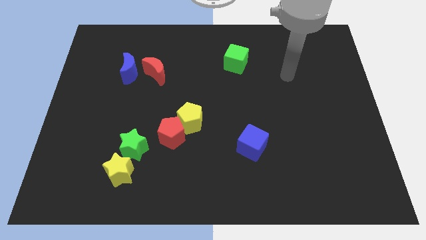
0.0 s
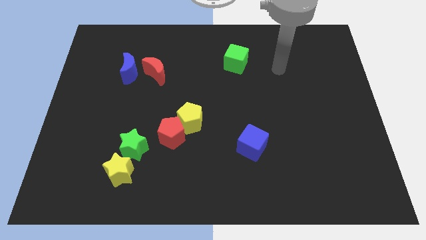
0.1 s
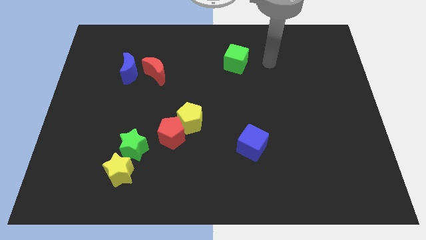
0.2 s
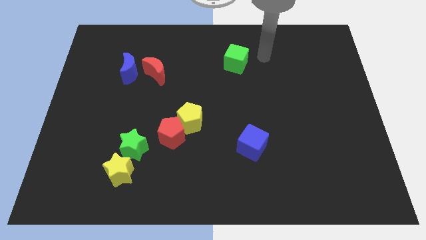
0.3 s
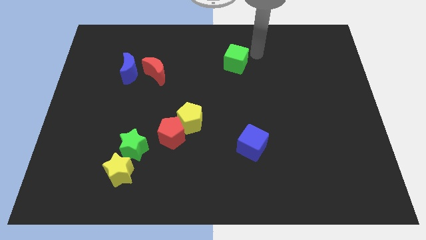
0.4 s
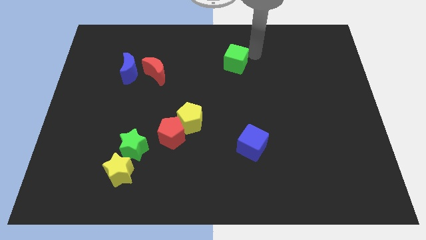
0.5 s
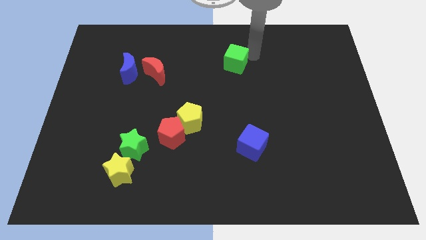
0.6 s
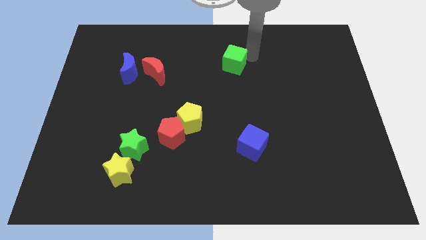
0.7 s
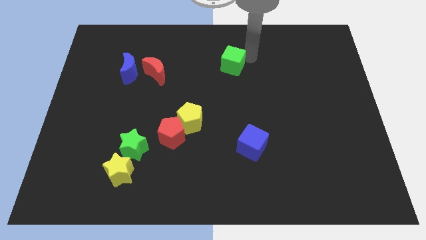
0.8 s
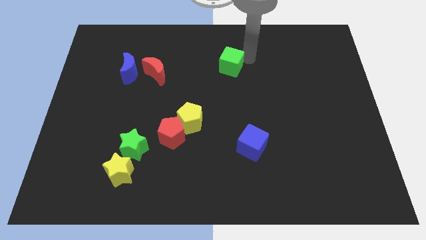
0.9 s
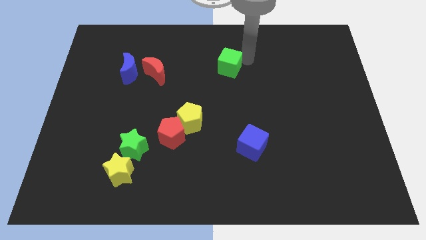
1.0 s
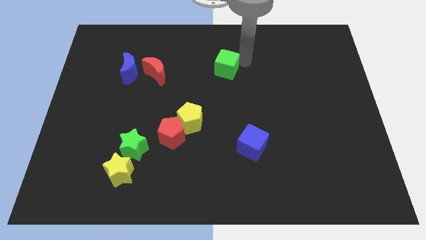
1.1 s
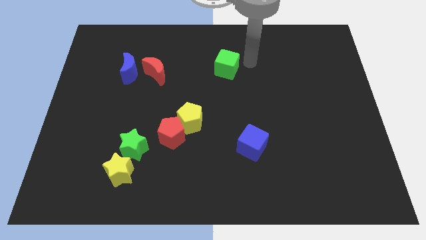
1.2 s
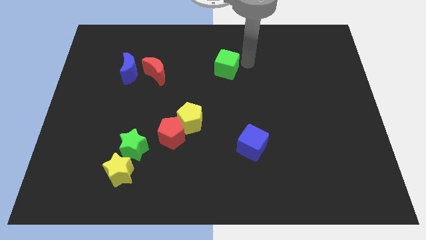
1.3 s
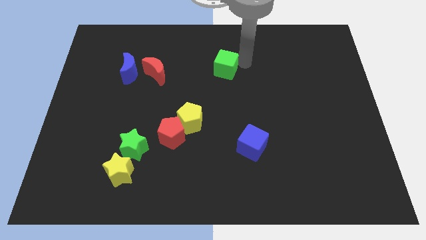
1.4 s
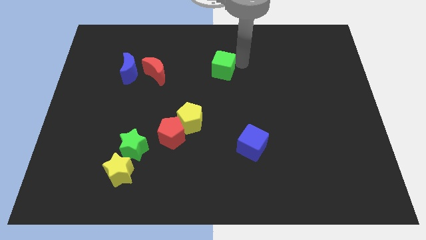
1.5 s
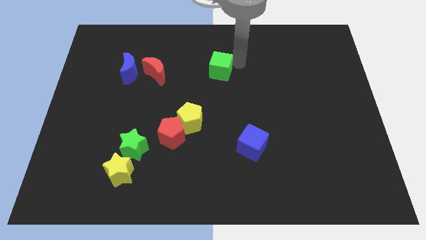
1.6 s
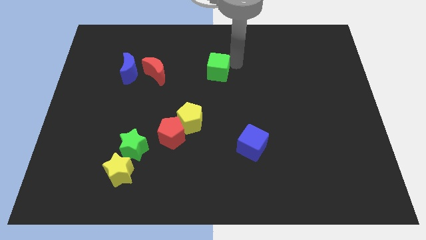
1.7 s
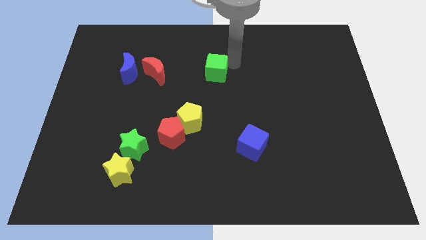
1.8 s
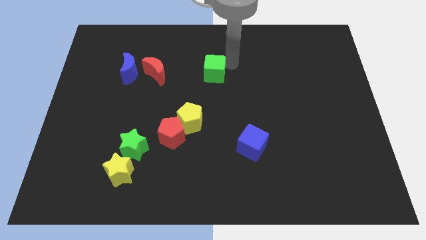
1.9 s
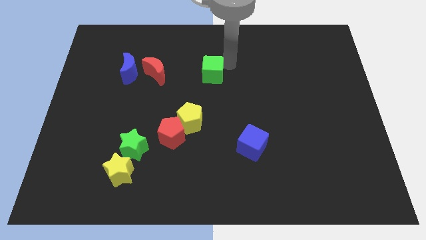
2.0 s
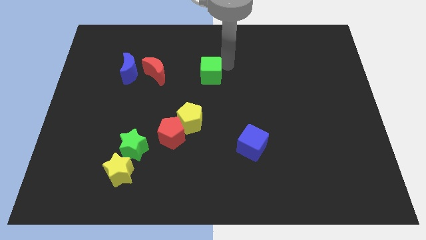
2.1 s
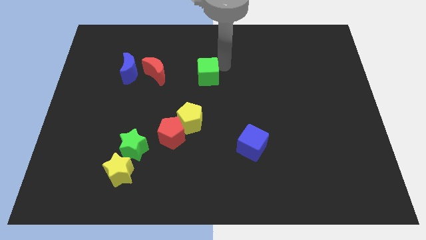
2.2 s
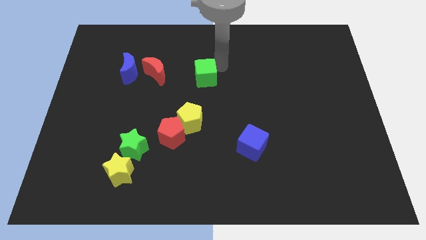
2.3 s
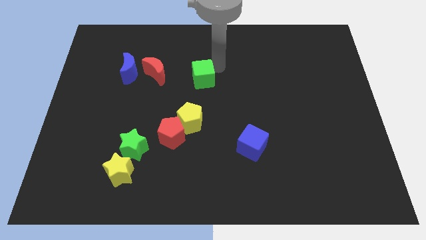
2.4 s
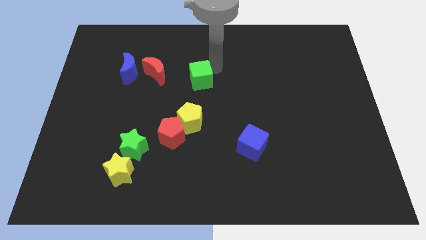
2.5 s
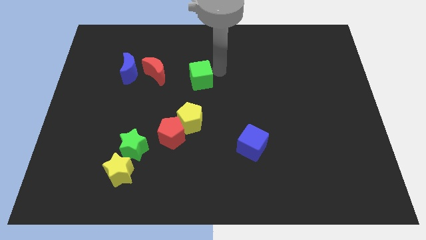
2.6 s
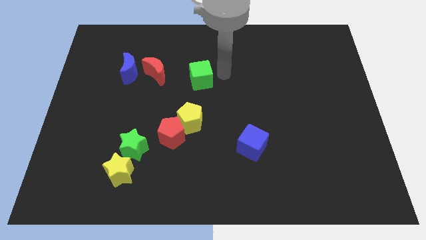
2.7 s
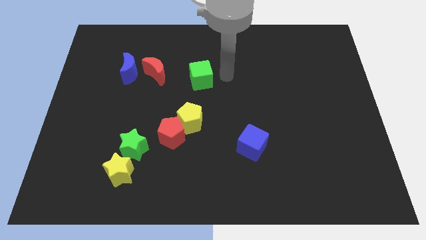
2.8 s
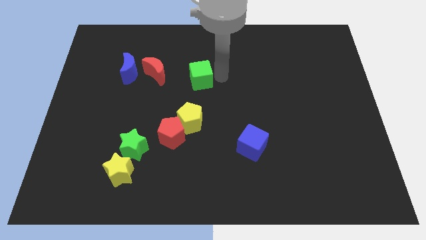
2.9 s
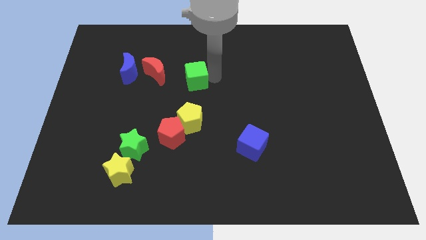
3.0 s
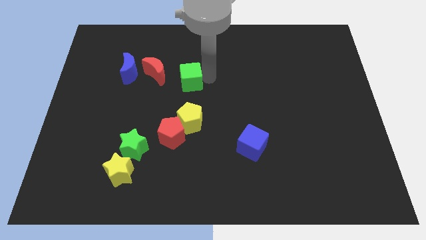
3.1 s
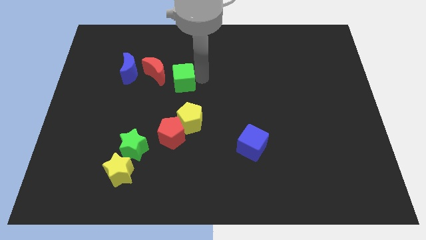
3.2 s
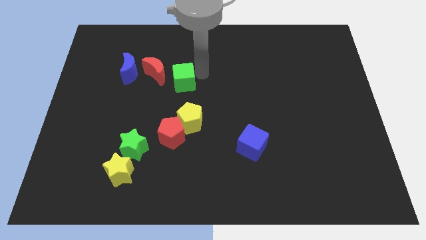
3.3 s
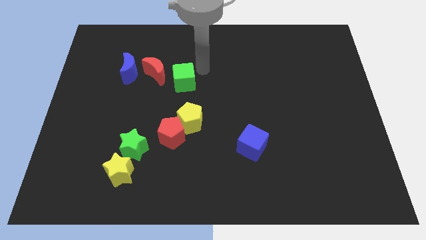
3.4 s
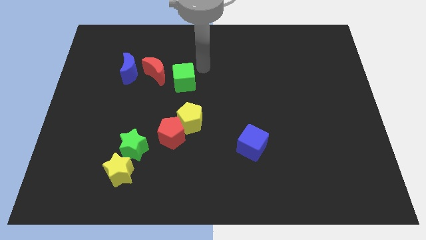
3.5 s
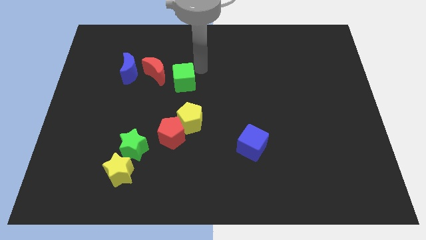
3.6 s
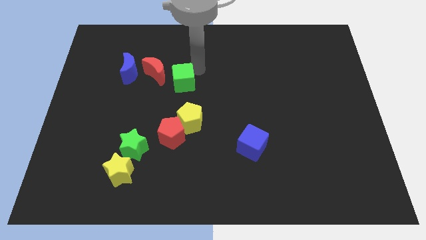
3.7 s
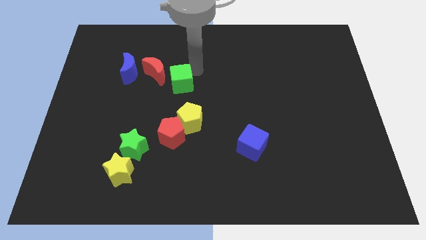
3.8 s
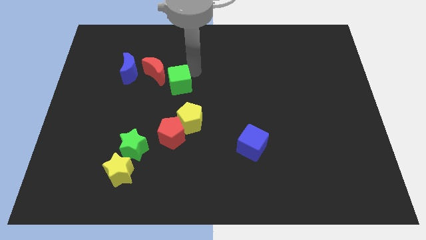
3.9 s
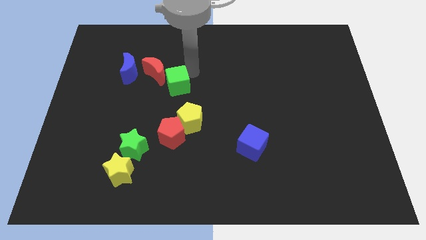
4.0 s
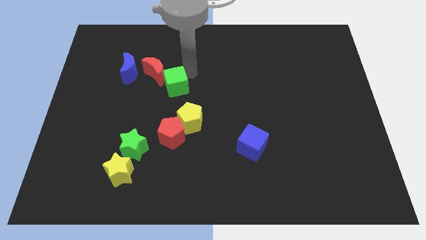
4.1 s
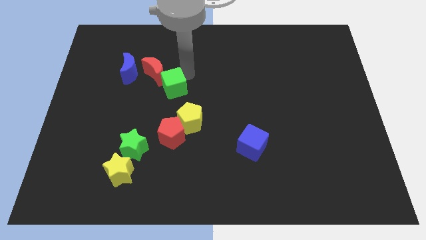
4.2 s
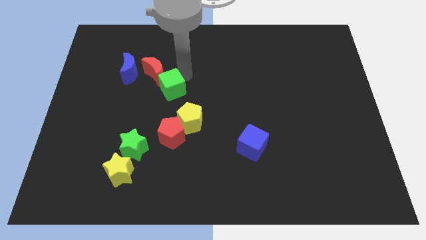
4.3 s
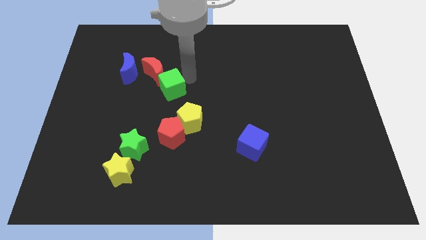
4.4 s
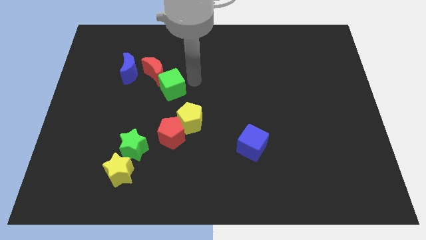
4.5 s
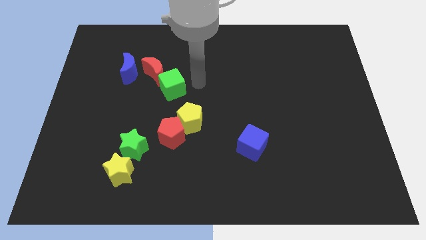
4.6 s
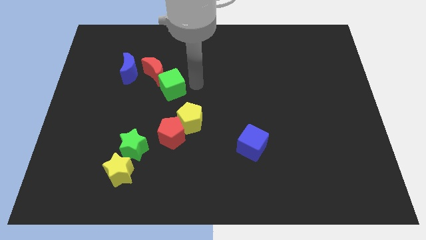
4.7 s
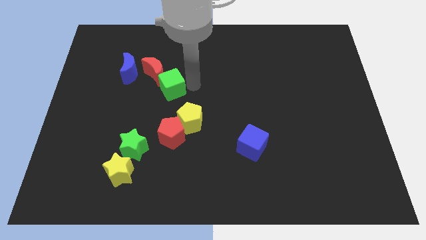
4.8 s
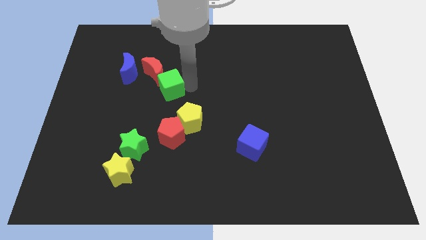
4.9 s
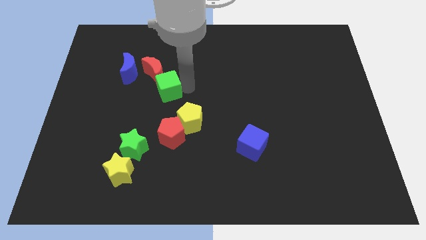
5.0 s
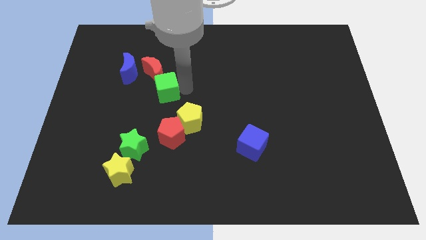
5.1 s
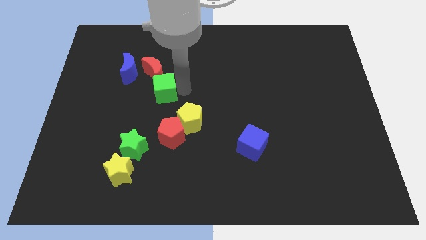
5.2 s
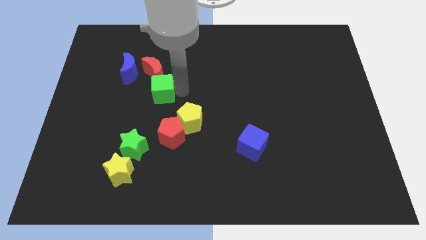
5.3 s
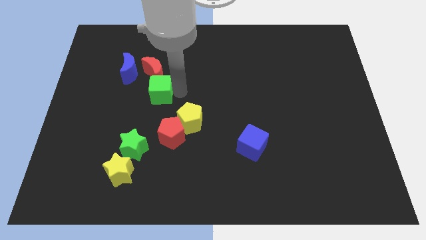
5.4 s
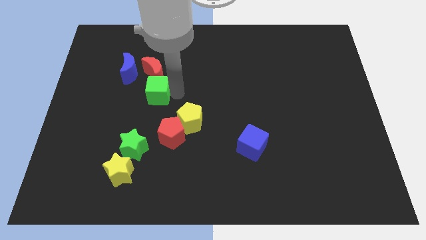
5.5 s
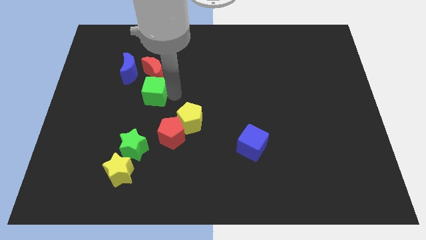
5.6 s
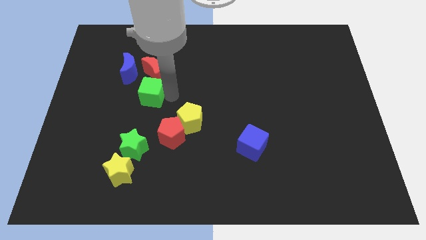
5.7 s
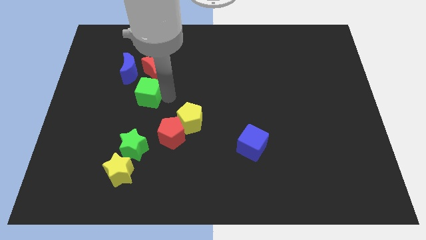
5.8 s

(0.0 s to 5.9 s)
move the green cube to the bottom left of the red moon

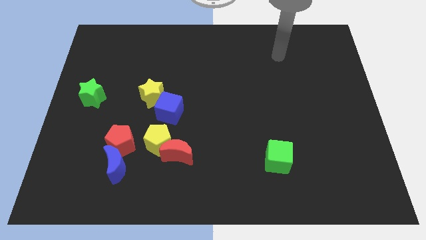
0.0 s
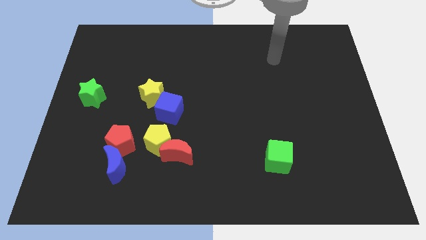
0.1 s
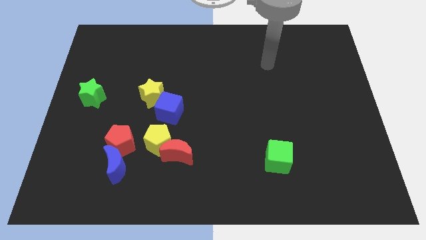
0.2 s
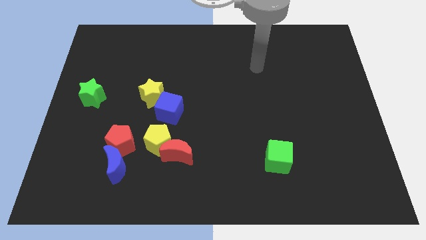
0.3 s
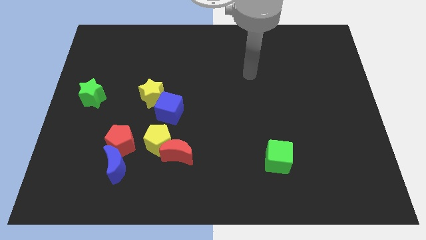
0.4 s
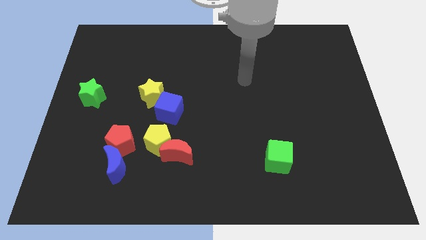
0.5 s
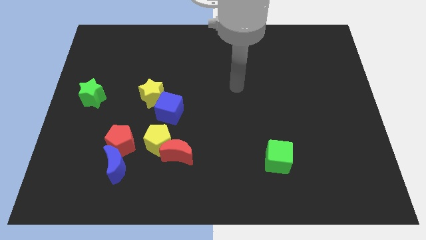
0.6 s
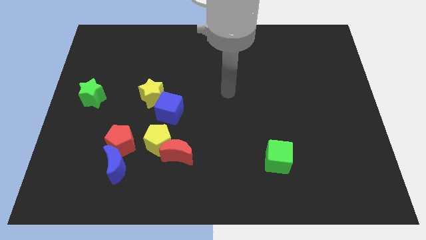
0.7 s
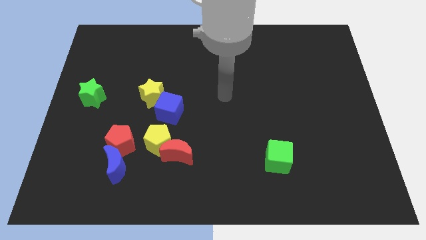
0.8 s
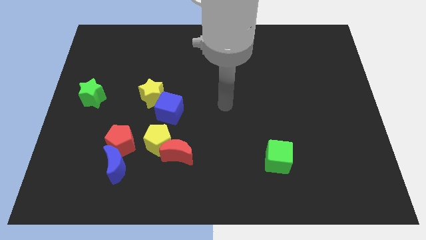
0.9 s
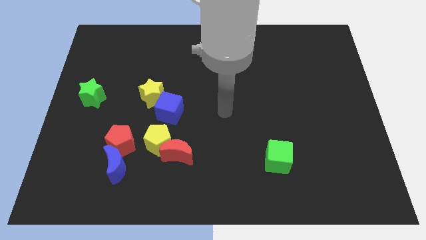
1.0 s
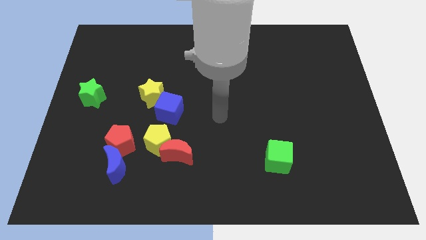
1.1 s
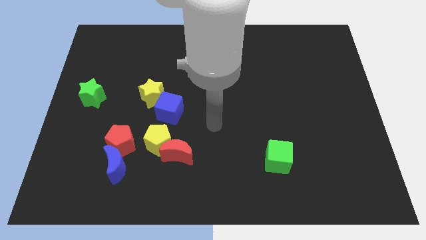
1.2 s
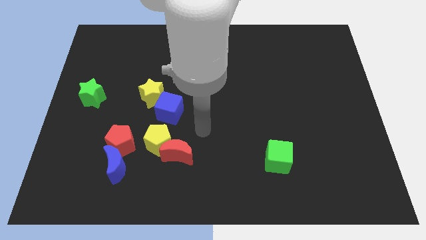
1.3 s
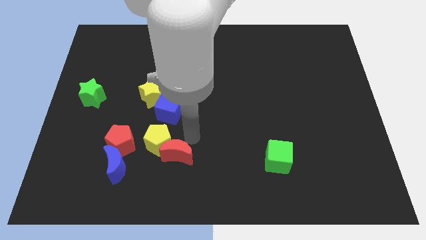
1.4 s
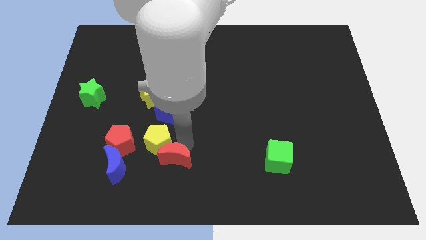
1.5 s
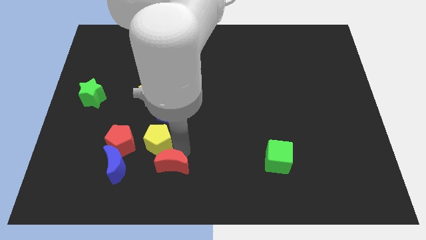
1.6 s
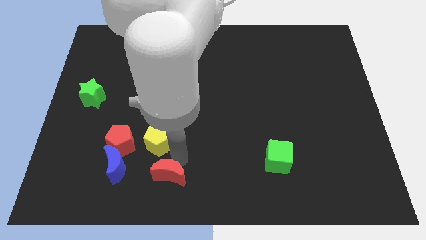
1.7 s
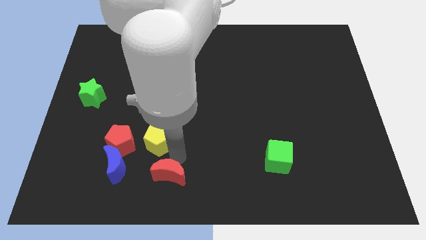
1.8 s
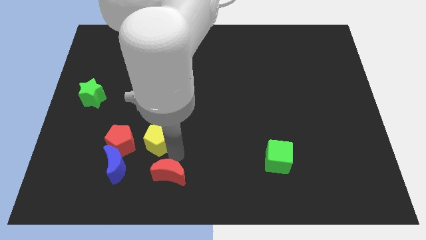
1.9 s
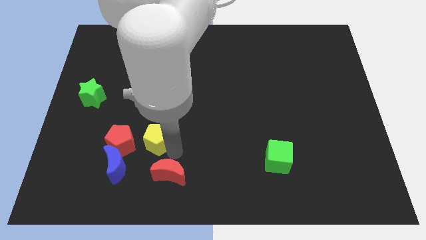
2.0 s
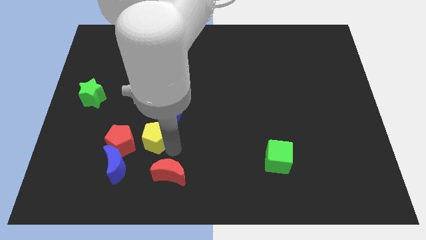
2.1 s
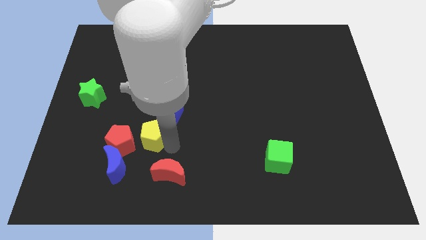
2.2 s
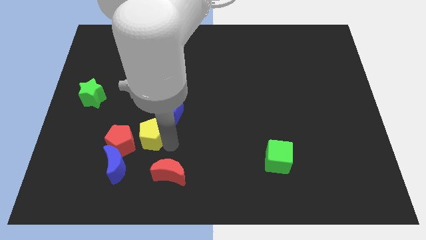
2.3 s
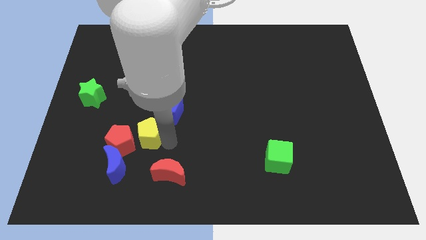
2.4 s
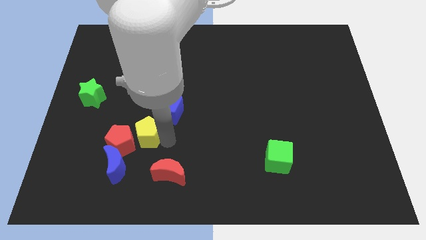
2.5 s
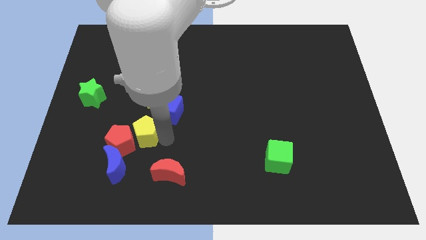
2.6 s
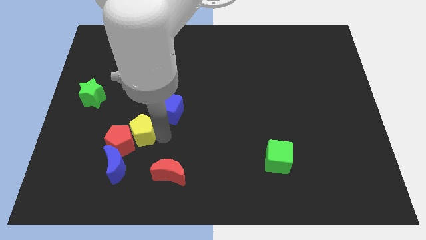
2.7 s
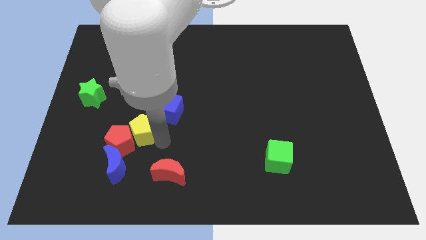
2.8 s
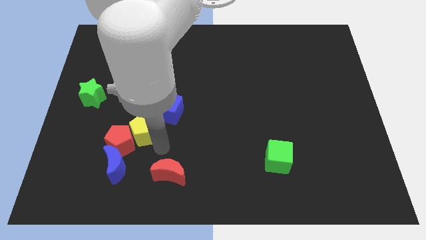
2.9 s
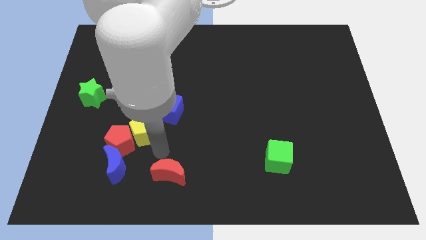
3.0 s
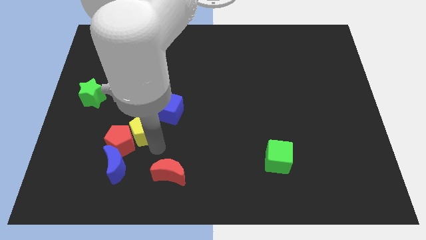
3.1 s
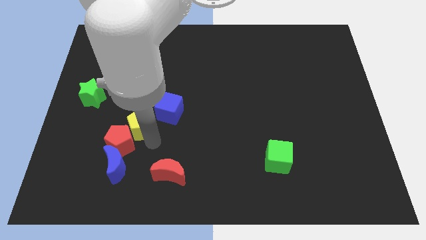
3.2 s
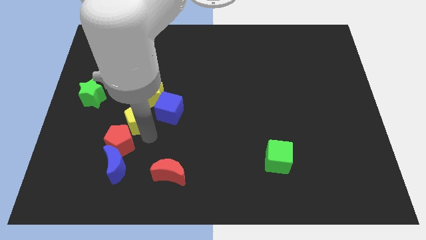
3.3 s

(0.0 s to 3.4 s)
slide the yellow pentagon to the bottom left of the yellow star
